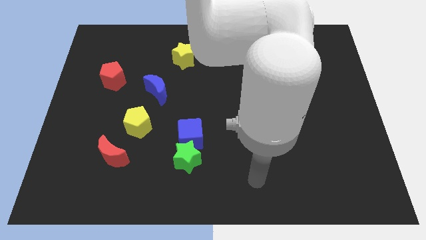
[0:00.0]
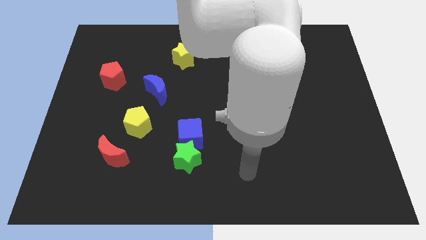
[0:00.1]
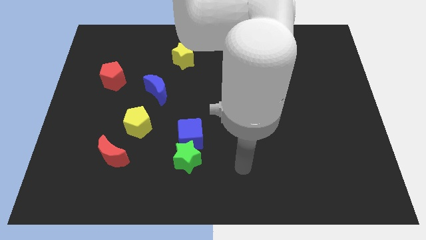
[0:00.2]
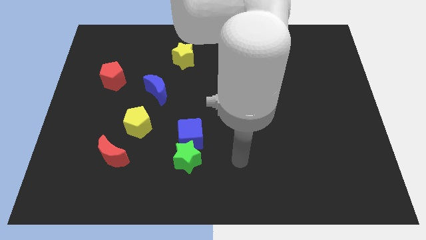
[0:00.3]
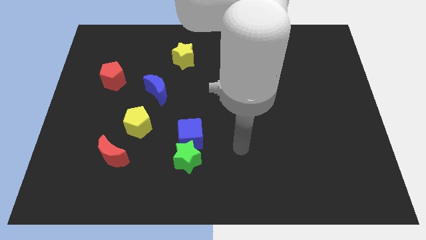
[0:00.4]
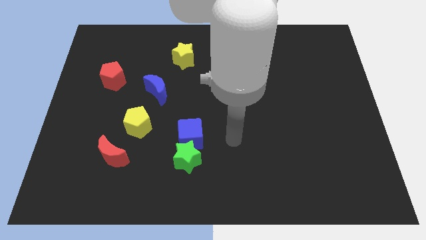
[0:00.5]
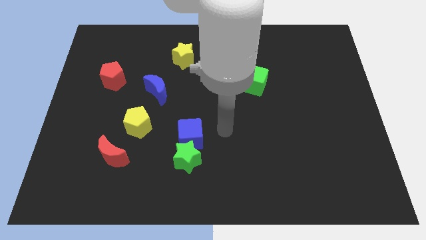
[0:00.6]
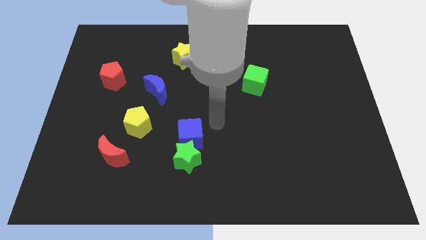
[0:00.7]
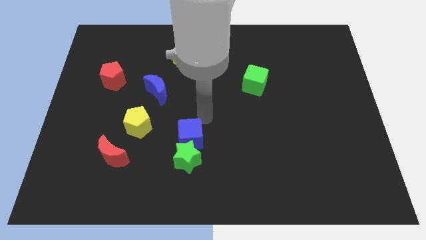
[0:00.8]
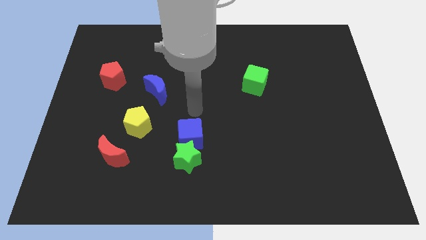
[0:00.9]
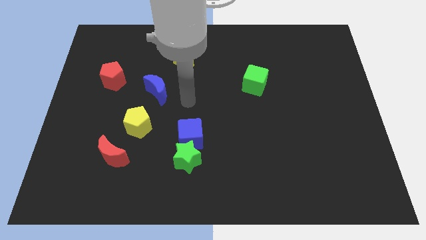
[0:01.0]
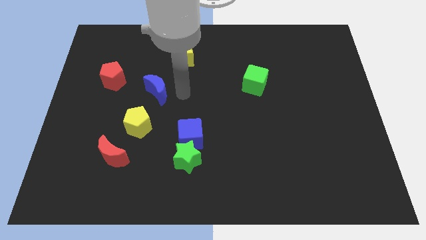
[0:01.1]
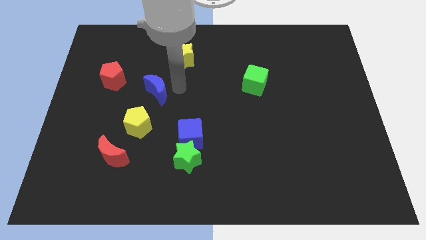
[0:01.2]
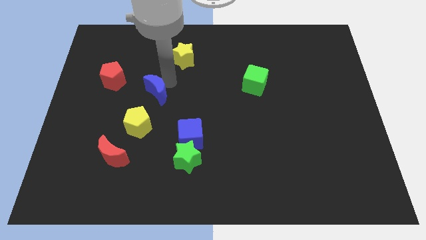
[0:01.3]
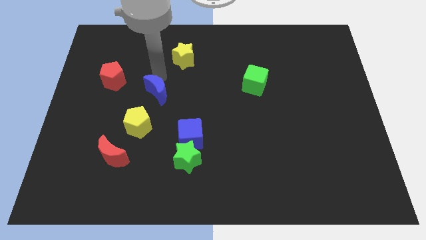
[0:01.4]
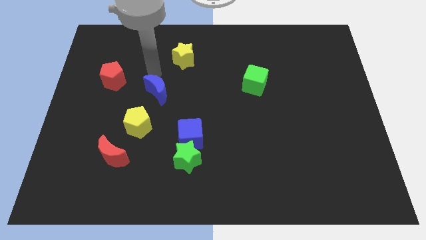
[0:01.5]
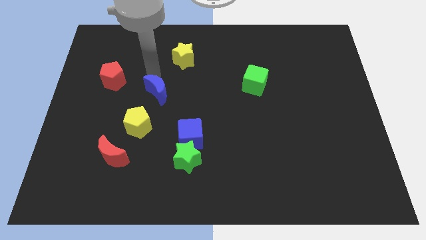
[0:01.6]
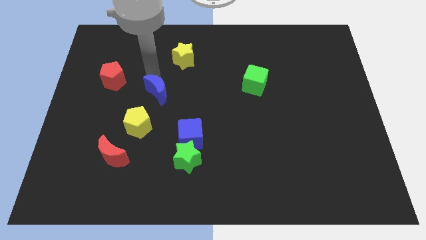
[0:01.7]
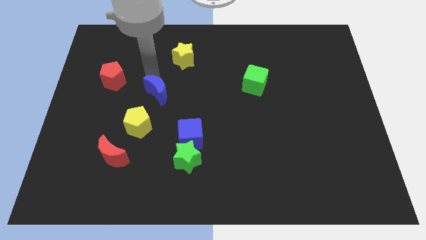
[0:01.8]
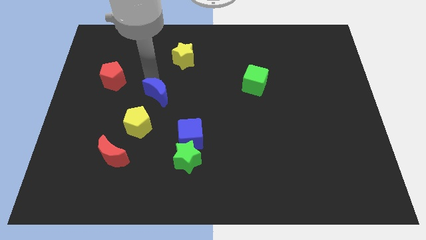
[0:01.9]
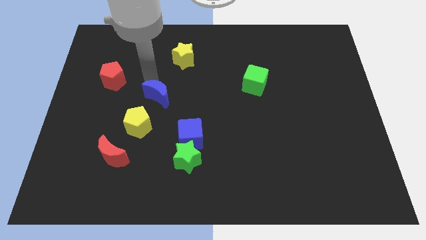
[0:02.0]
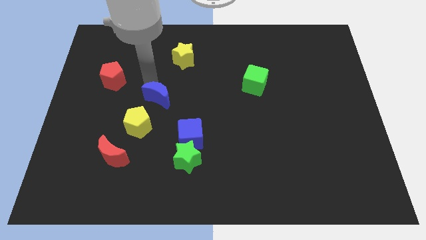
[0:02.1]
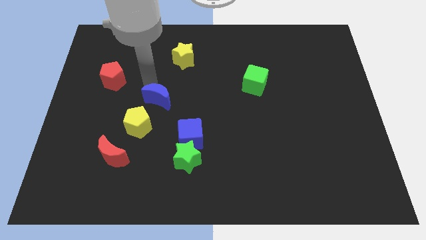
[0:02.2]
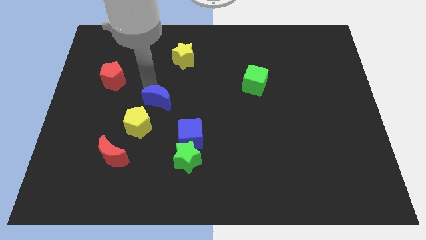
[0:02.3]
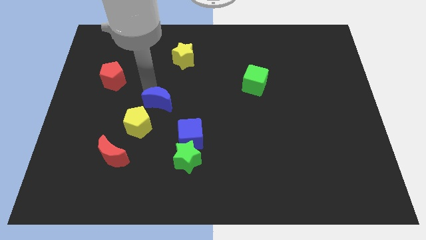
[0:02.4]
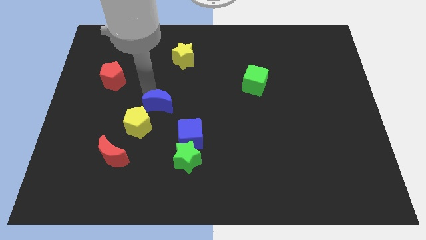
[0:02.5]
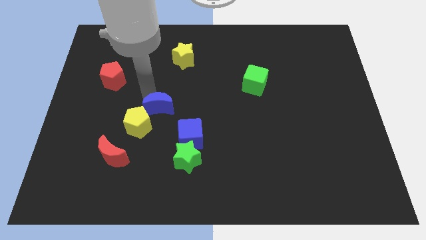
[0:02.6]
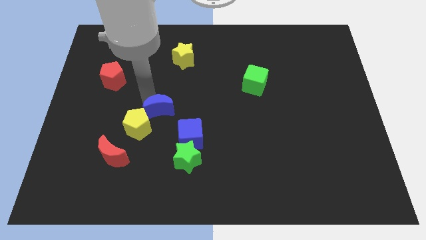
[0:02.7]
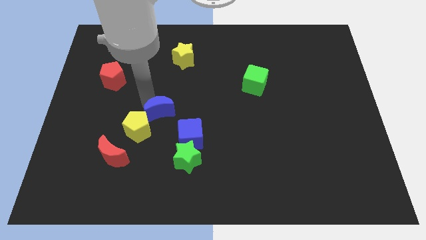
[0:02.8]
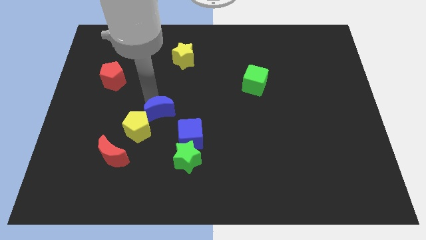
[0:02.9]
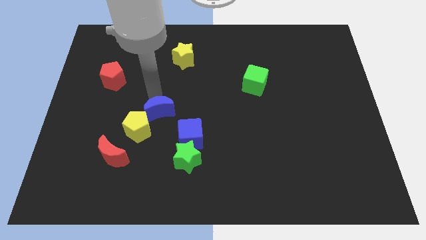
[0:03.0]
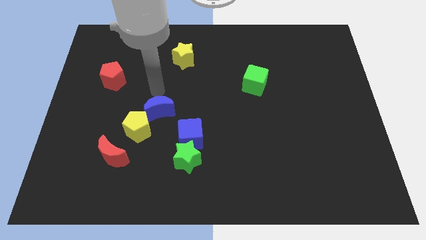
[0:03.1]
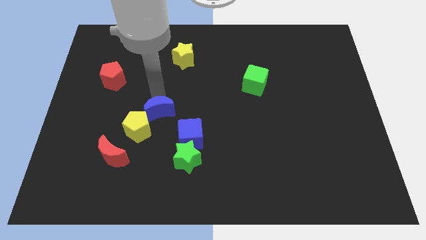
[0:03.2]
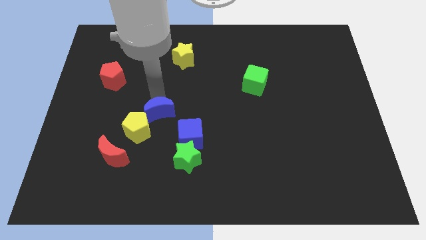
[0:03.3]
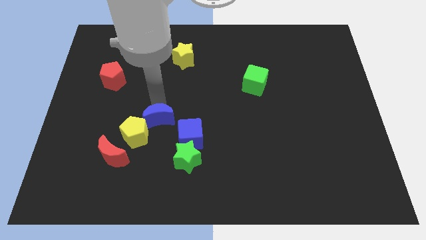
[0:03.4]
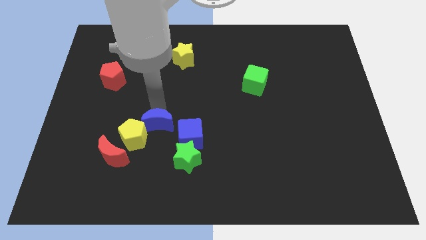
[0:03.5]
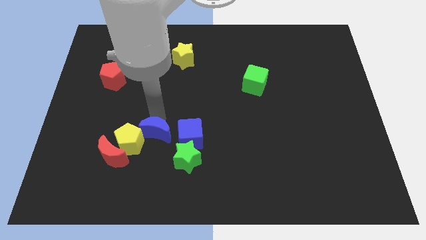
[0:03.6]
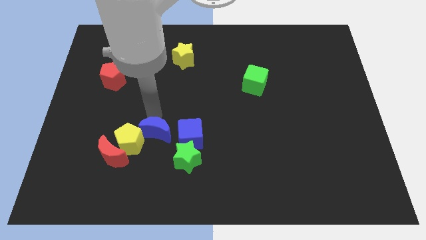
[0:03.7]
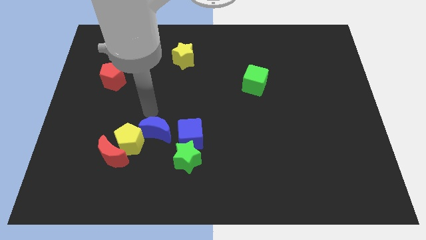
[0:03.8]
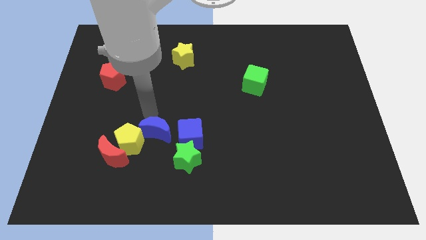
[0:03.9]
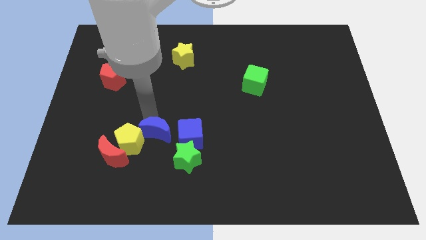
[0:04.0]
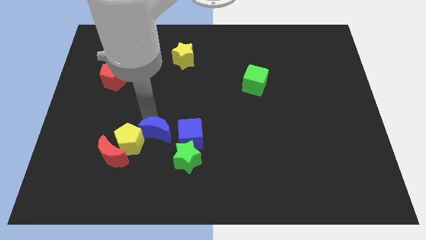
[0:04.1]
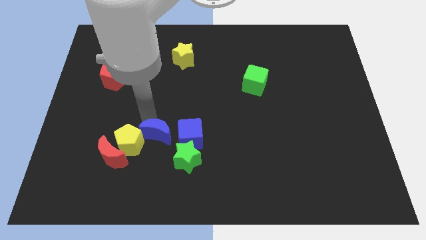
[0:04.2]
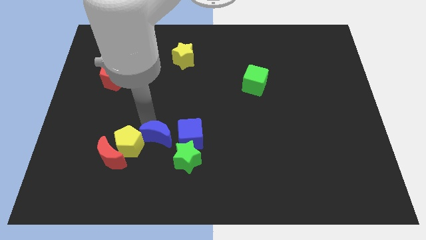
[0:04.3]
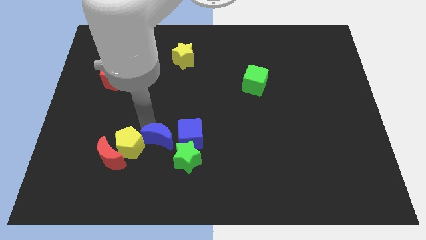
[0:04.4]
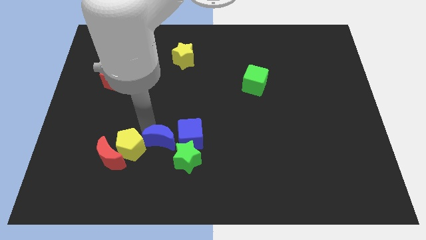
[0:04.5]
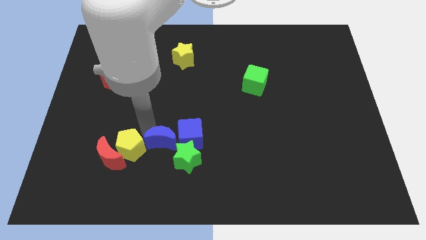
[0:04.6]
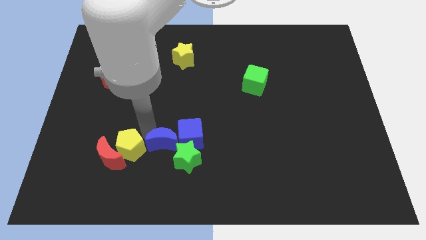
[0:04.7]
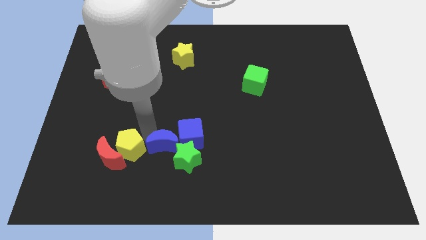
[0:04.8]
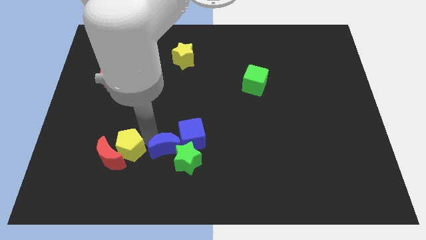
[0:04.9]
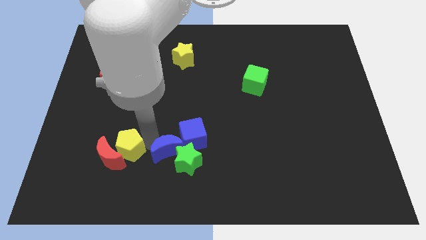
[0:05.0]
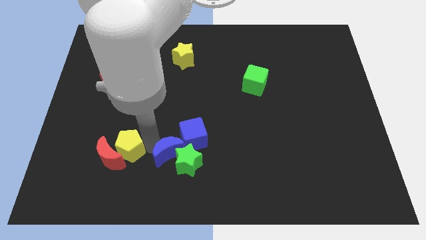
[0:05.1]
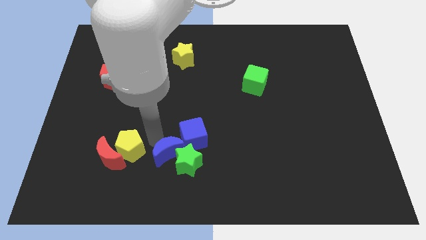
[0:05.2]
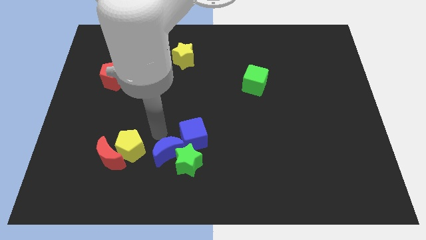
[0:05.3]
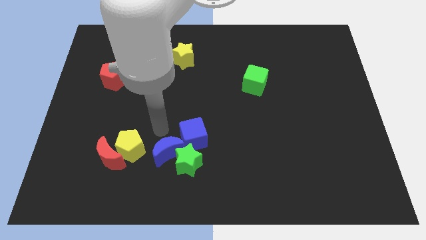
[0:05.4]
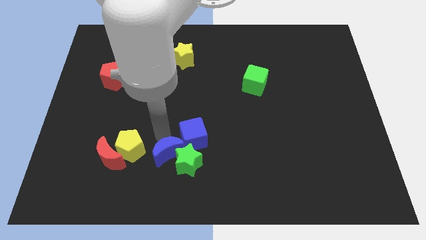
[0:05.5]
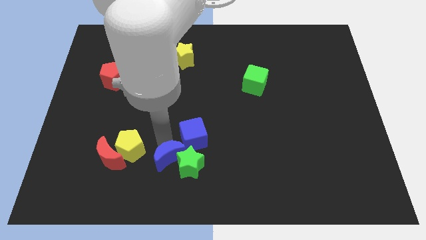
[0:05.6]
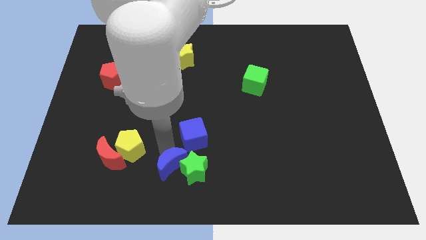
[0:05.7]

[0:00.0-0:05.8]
push the blue moon to the bottom side

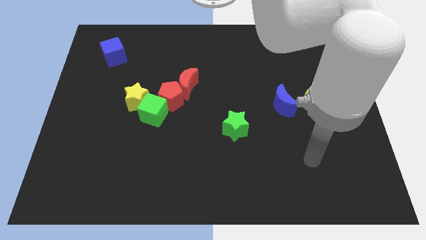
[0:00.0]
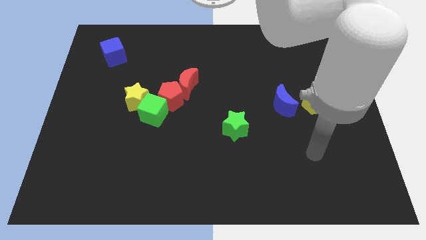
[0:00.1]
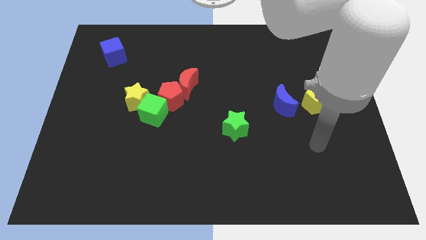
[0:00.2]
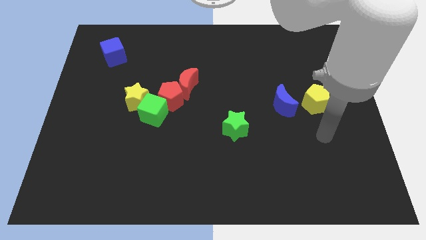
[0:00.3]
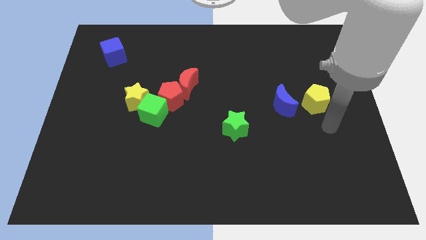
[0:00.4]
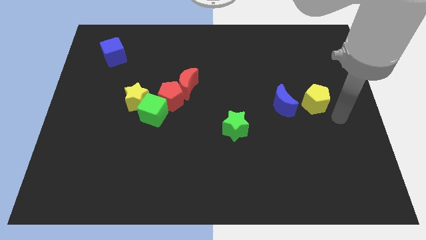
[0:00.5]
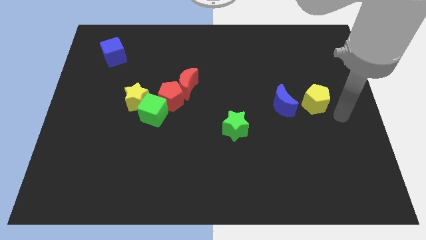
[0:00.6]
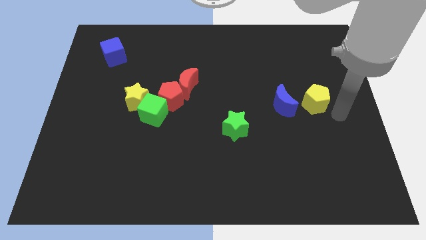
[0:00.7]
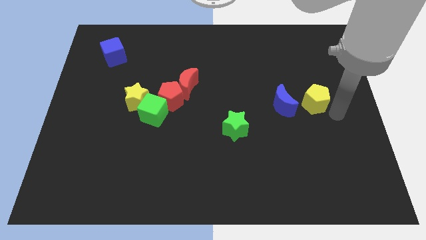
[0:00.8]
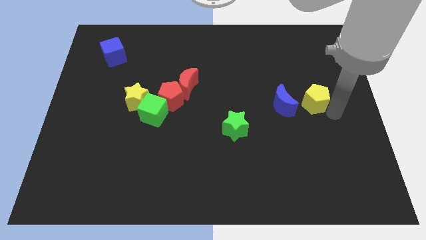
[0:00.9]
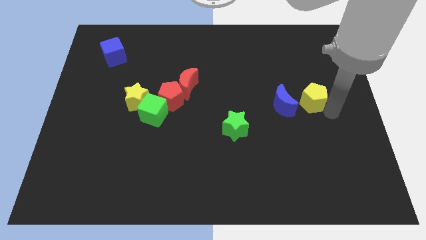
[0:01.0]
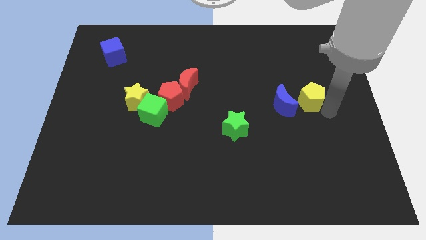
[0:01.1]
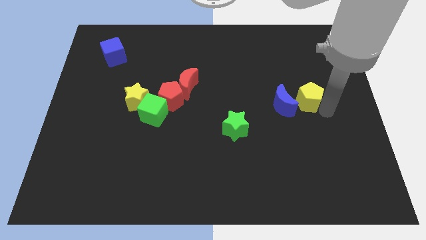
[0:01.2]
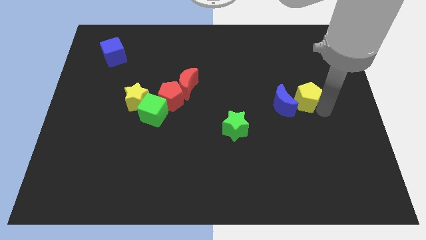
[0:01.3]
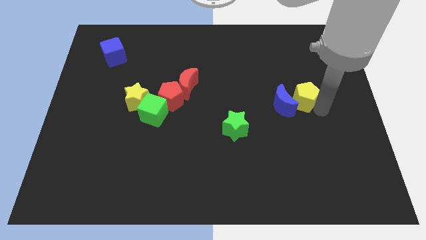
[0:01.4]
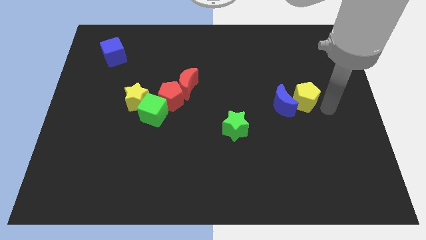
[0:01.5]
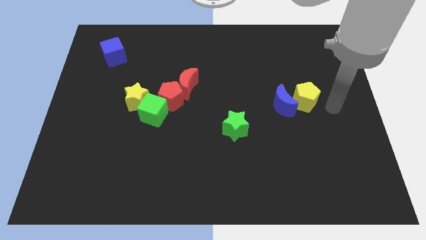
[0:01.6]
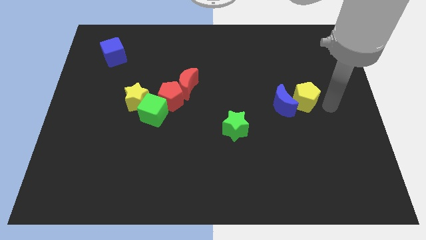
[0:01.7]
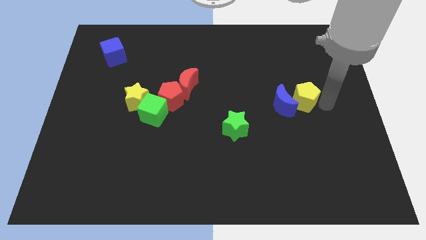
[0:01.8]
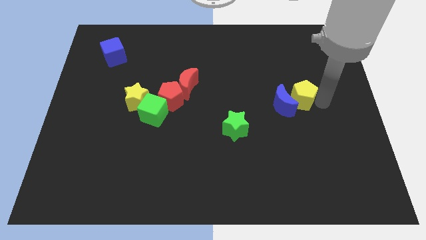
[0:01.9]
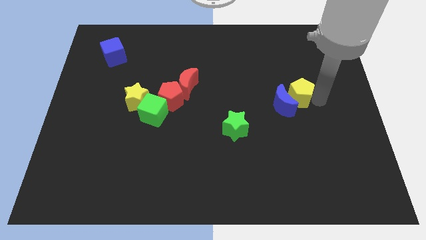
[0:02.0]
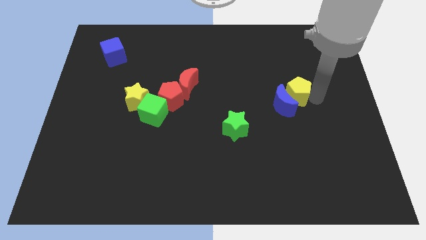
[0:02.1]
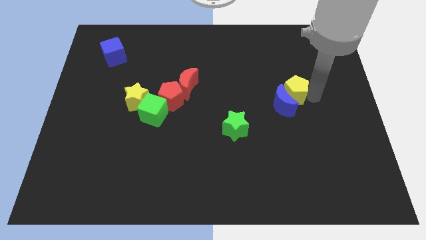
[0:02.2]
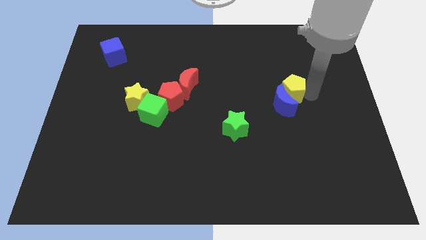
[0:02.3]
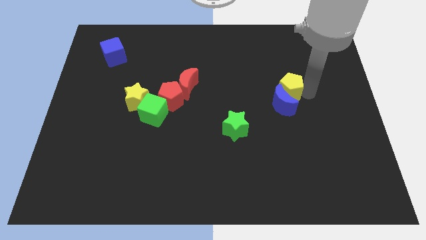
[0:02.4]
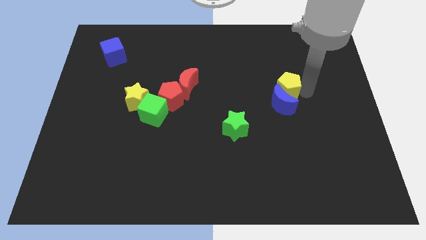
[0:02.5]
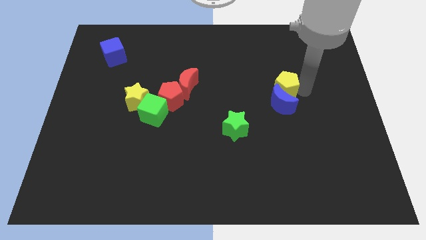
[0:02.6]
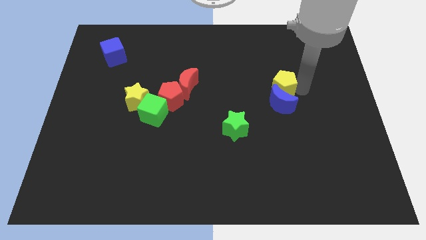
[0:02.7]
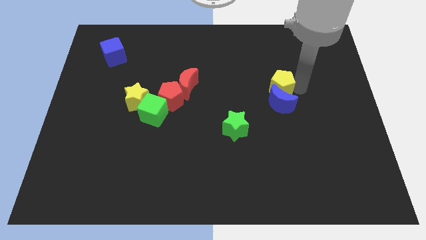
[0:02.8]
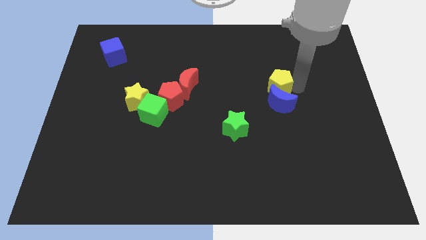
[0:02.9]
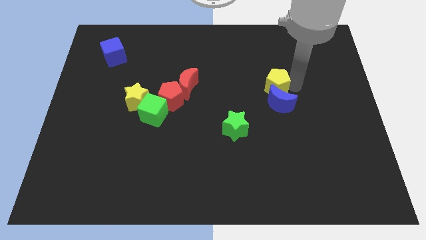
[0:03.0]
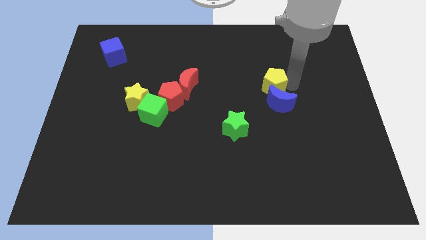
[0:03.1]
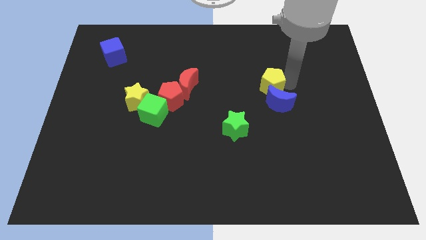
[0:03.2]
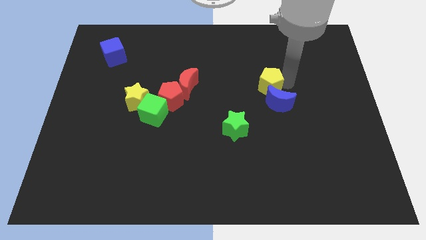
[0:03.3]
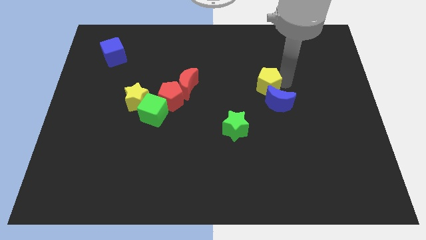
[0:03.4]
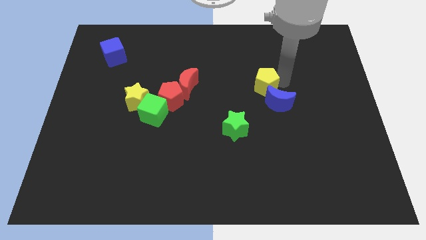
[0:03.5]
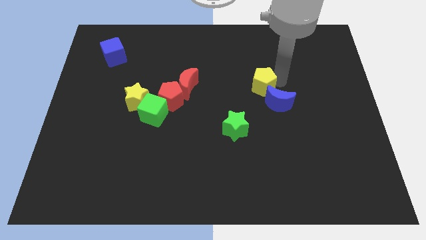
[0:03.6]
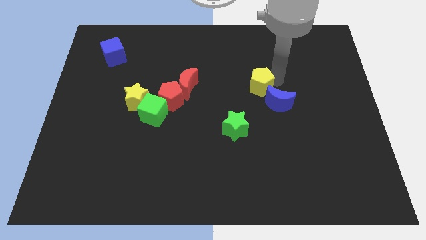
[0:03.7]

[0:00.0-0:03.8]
slide the yellow pentagon to the center of the board
